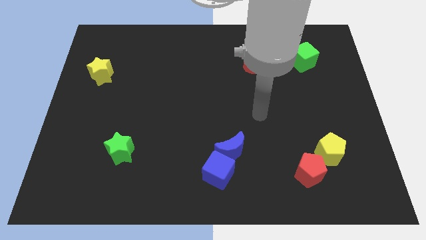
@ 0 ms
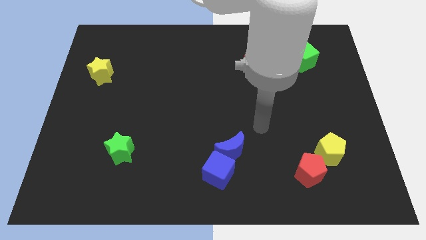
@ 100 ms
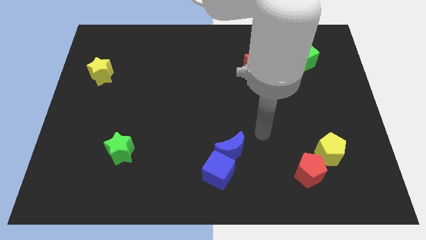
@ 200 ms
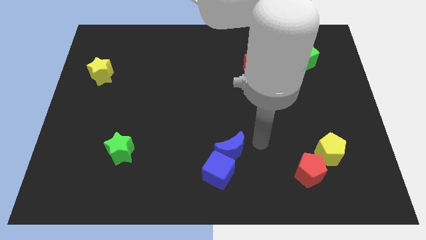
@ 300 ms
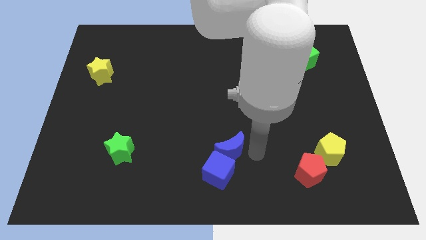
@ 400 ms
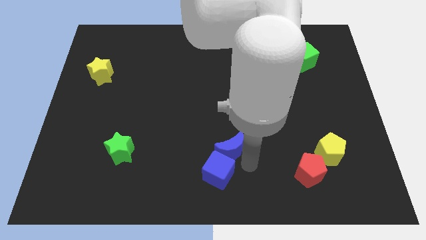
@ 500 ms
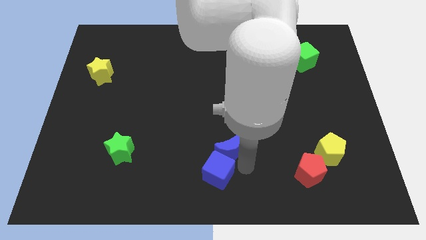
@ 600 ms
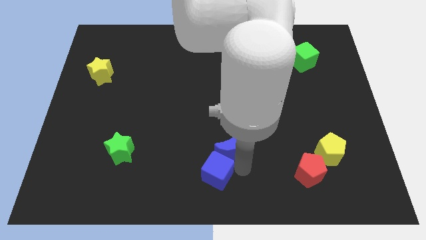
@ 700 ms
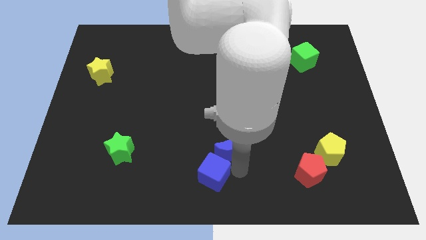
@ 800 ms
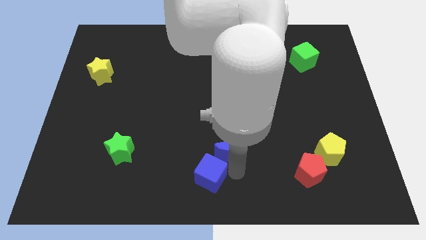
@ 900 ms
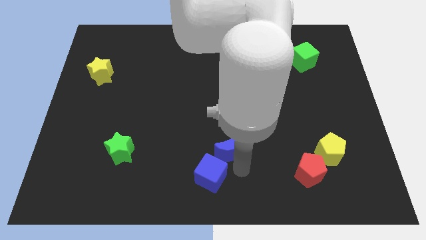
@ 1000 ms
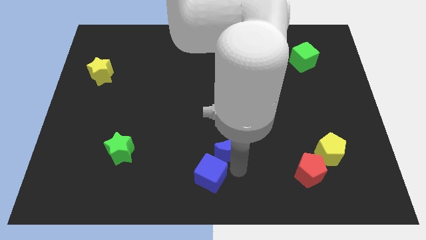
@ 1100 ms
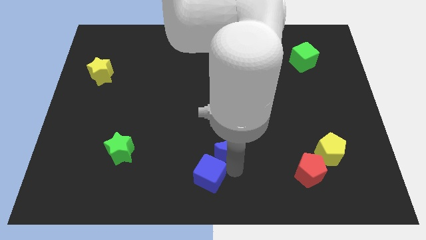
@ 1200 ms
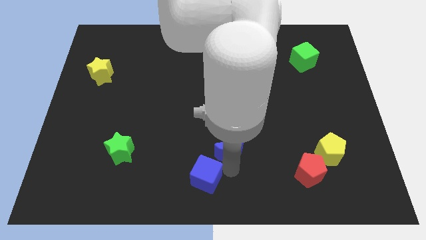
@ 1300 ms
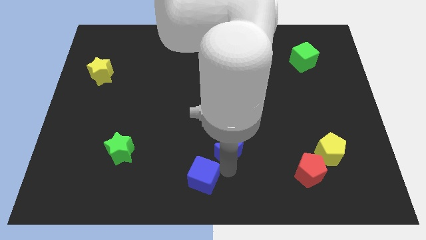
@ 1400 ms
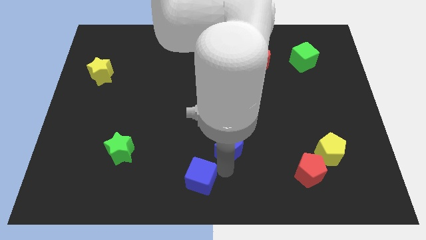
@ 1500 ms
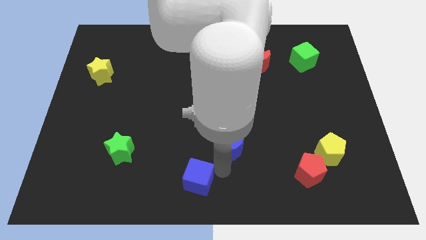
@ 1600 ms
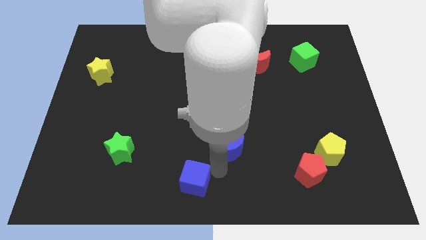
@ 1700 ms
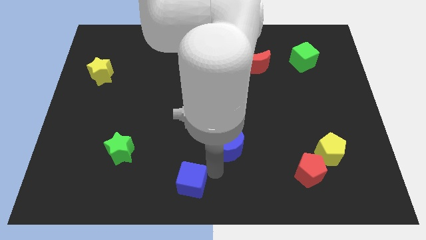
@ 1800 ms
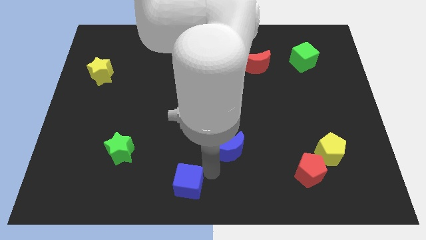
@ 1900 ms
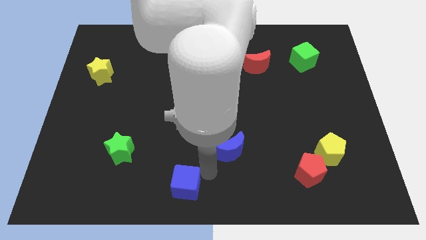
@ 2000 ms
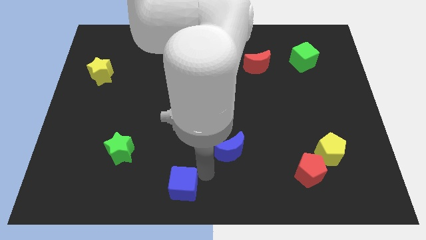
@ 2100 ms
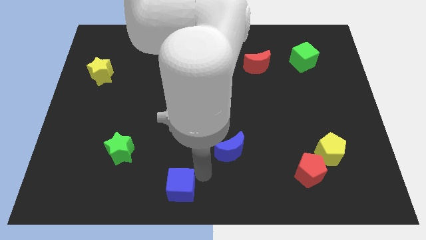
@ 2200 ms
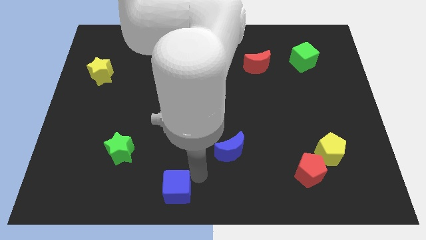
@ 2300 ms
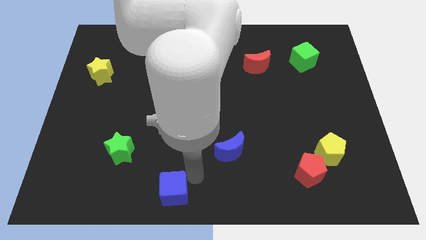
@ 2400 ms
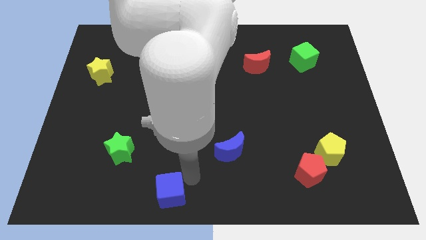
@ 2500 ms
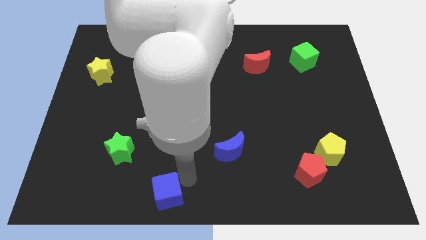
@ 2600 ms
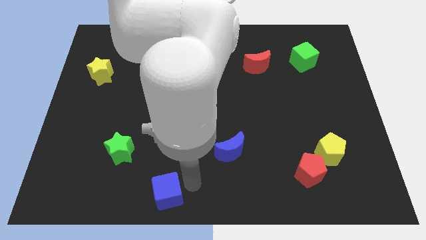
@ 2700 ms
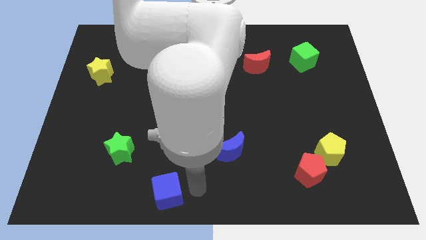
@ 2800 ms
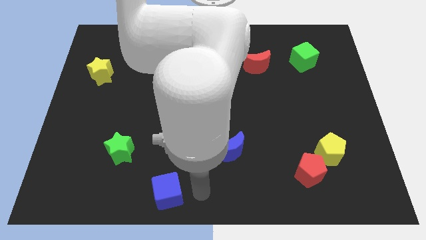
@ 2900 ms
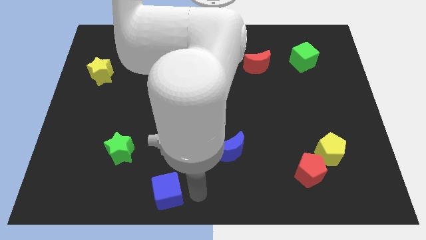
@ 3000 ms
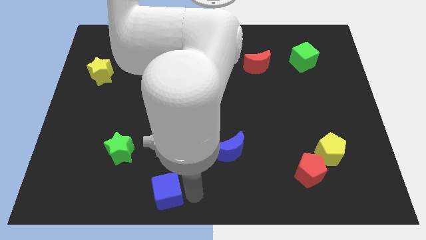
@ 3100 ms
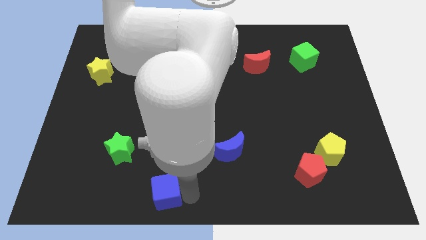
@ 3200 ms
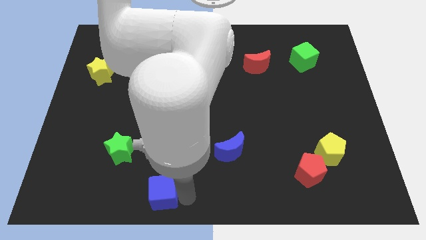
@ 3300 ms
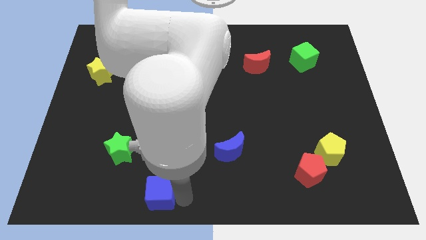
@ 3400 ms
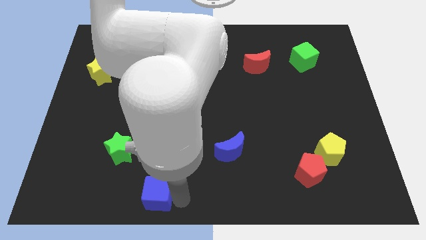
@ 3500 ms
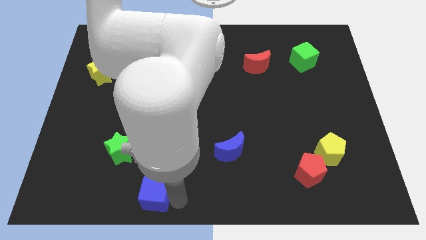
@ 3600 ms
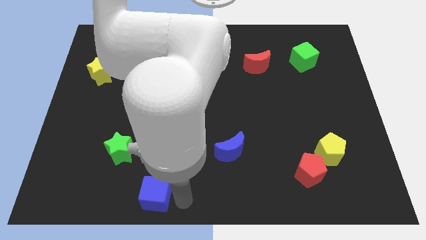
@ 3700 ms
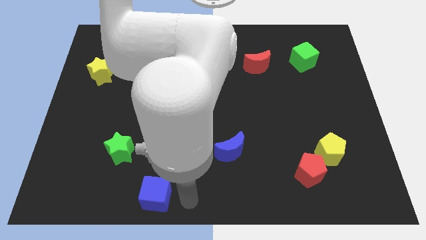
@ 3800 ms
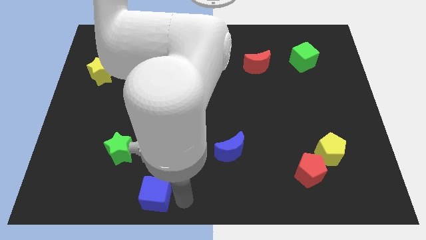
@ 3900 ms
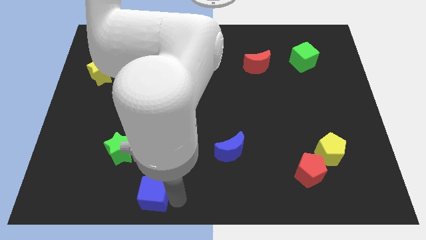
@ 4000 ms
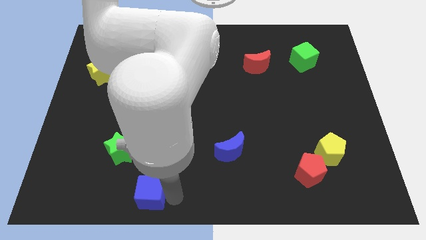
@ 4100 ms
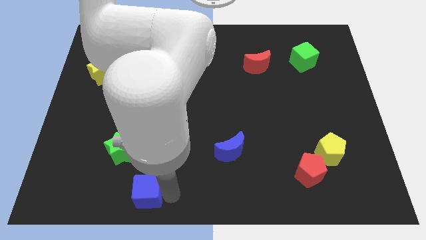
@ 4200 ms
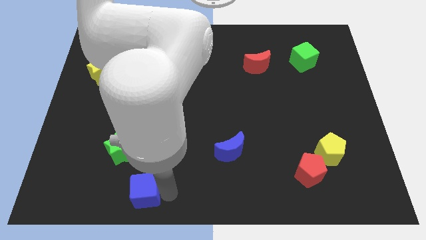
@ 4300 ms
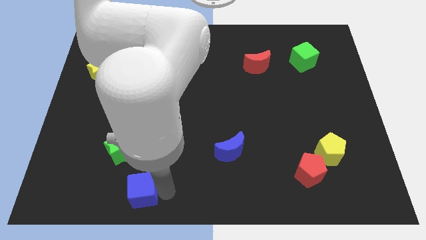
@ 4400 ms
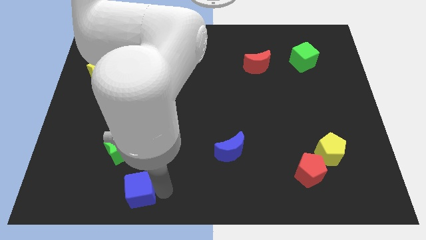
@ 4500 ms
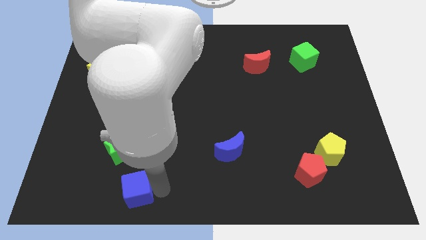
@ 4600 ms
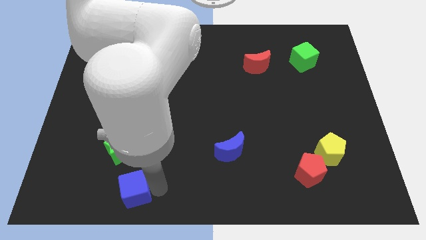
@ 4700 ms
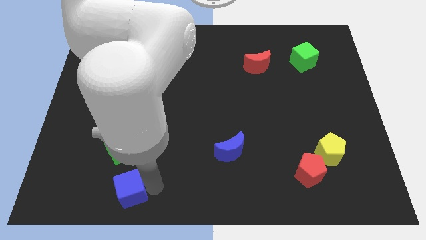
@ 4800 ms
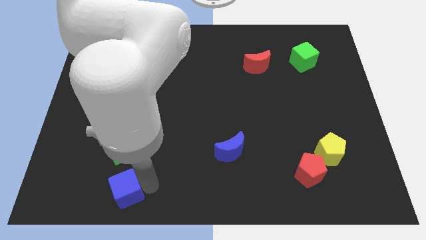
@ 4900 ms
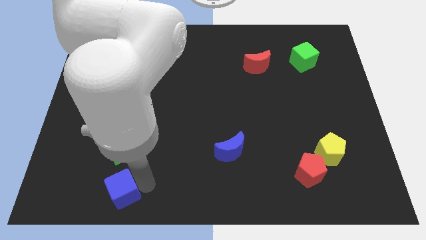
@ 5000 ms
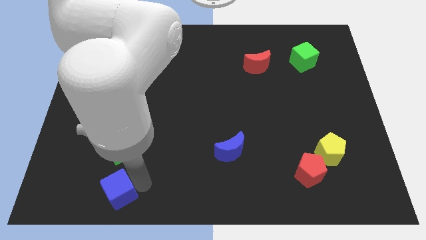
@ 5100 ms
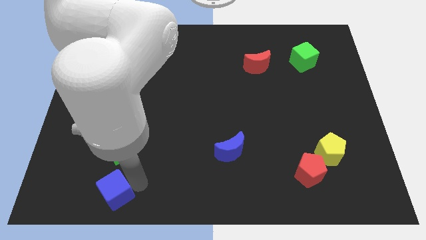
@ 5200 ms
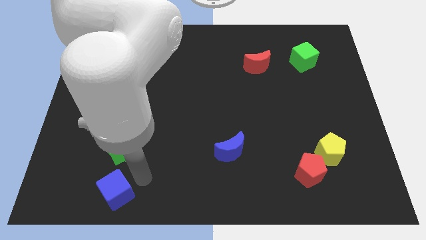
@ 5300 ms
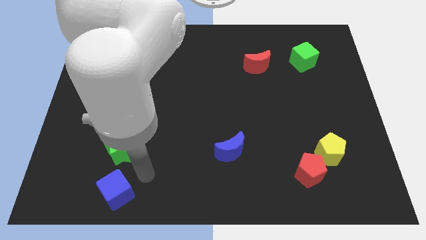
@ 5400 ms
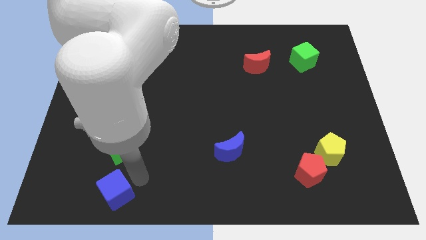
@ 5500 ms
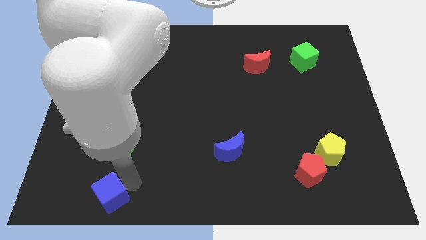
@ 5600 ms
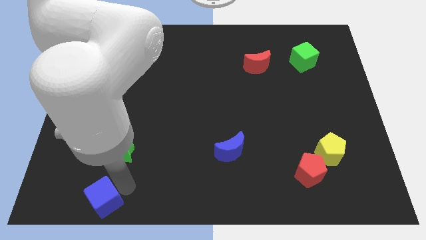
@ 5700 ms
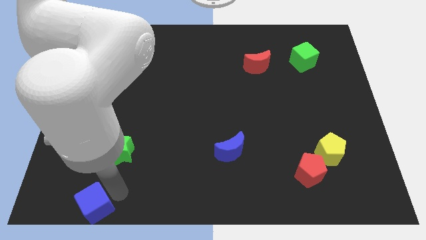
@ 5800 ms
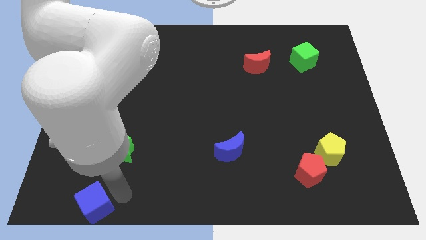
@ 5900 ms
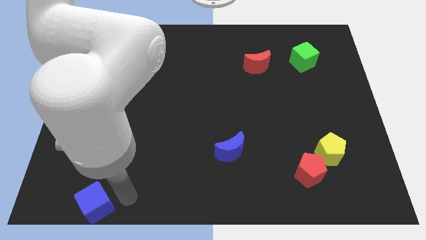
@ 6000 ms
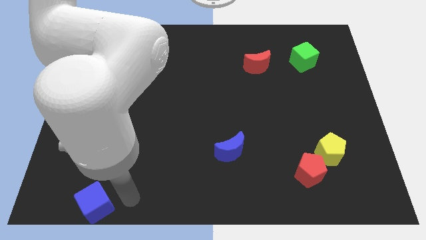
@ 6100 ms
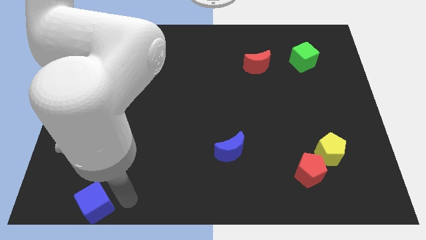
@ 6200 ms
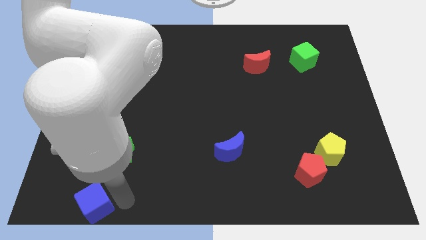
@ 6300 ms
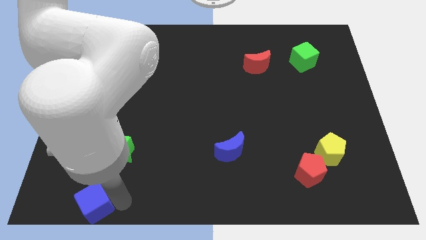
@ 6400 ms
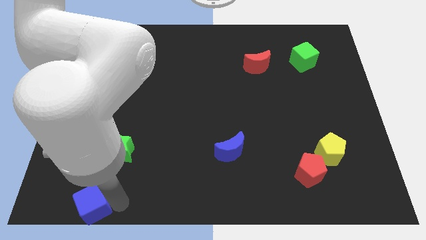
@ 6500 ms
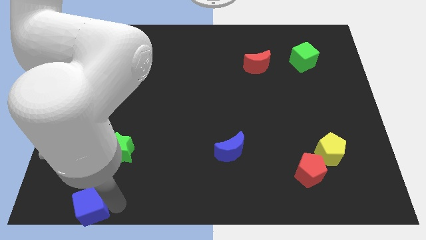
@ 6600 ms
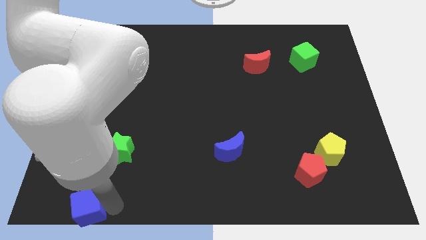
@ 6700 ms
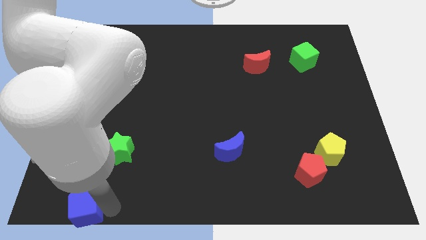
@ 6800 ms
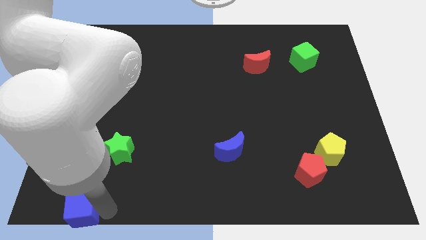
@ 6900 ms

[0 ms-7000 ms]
move the blue cube to the bottom left corner
